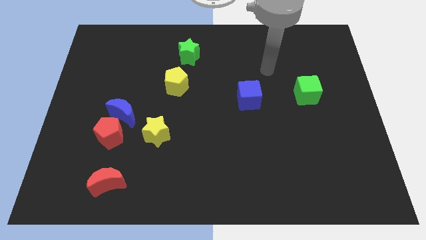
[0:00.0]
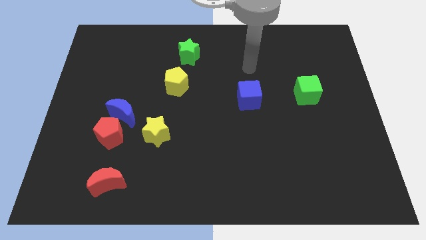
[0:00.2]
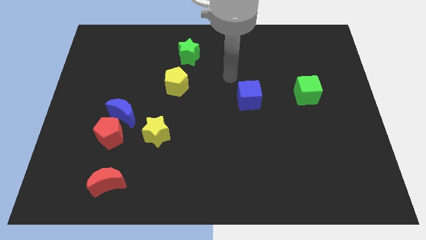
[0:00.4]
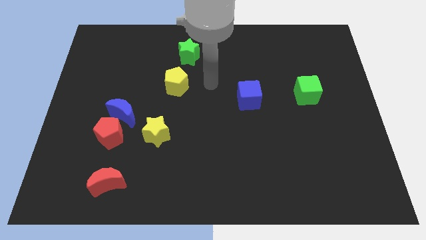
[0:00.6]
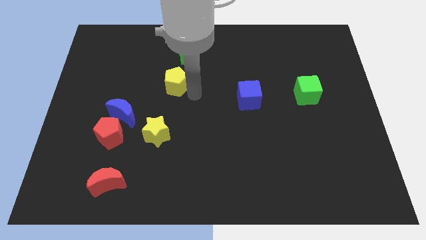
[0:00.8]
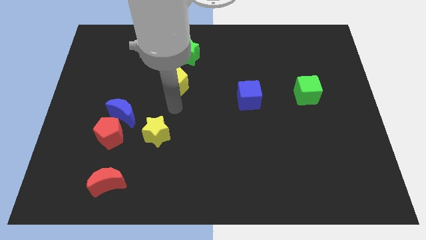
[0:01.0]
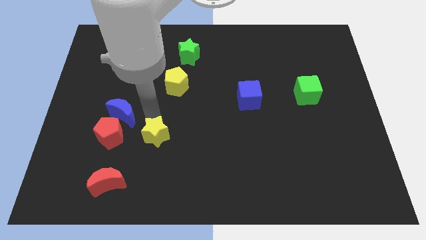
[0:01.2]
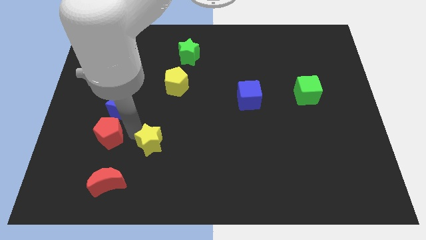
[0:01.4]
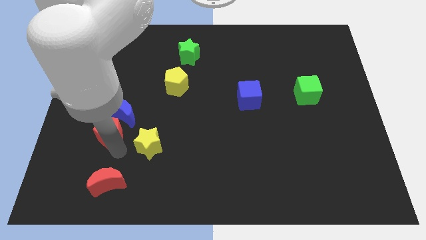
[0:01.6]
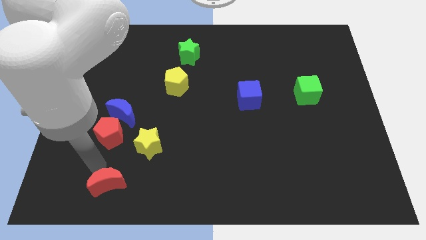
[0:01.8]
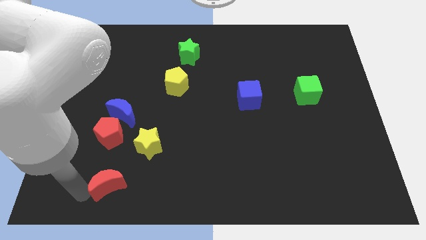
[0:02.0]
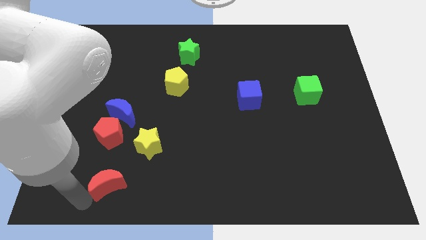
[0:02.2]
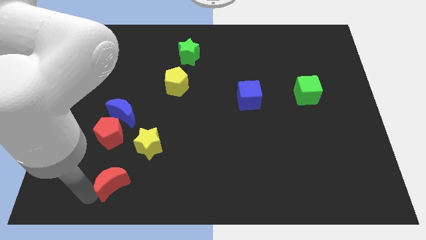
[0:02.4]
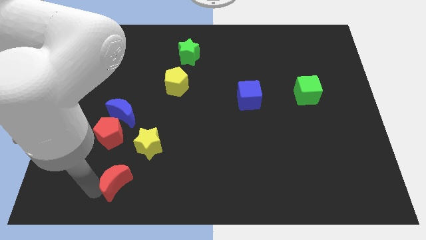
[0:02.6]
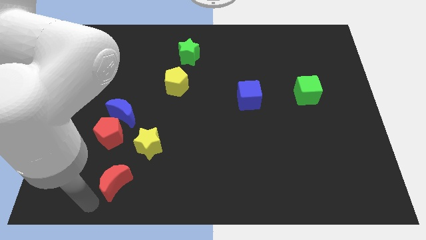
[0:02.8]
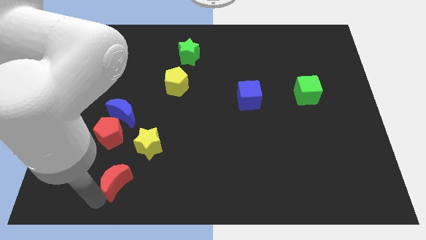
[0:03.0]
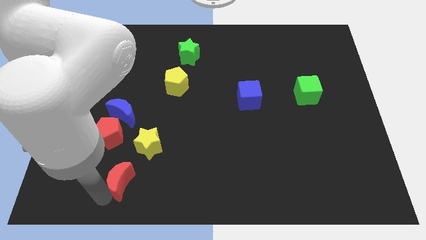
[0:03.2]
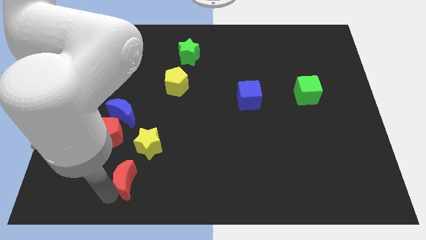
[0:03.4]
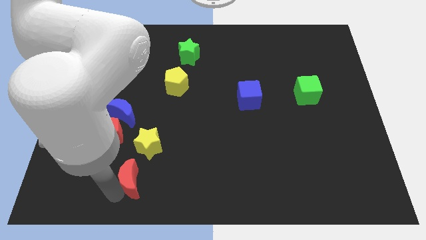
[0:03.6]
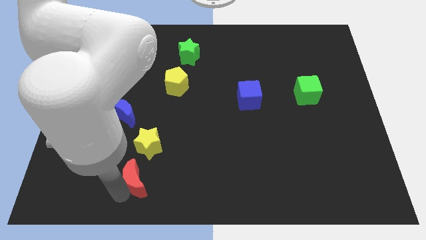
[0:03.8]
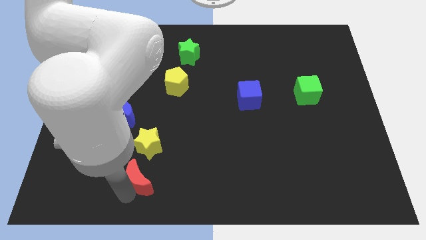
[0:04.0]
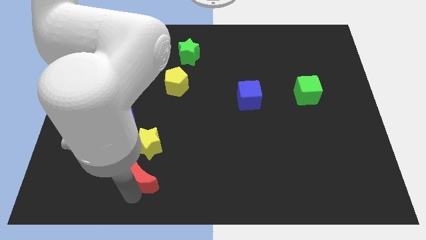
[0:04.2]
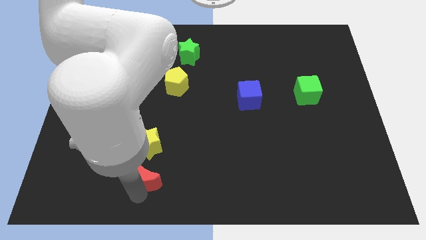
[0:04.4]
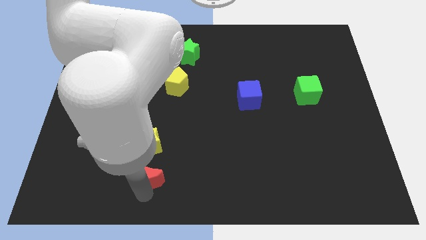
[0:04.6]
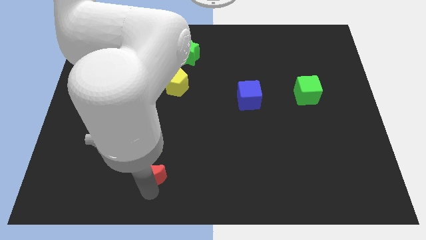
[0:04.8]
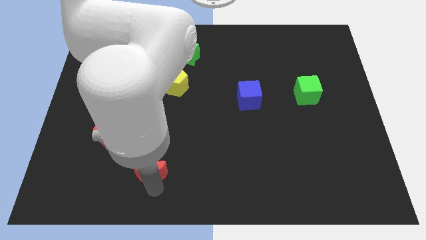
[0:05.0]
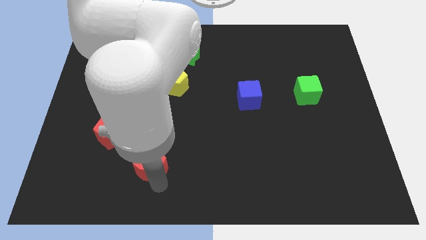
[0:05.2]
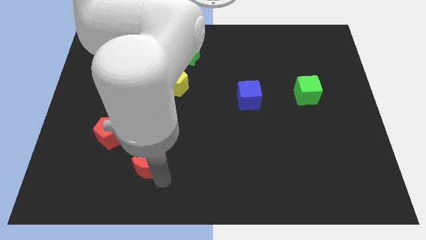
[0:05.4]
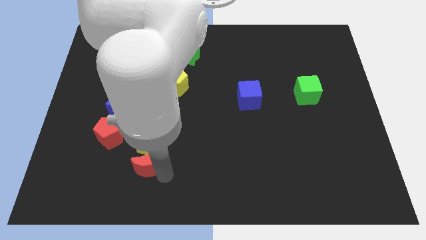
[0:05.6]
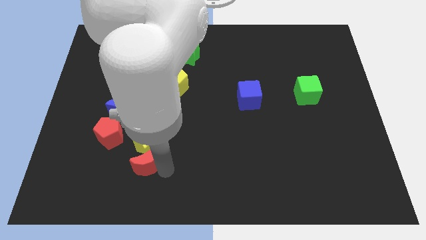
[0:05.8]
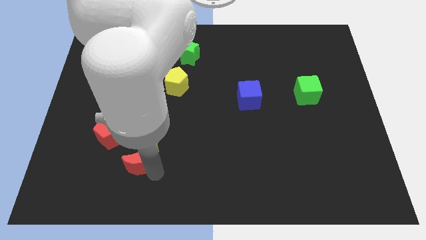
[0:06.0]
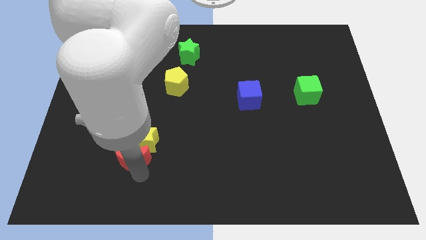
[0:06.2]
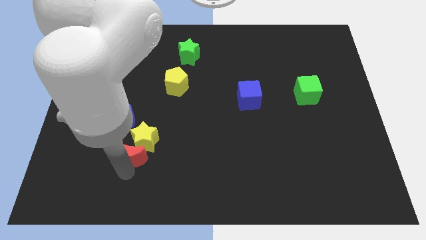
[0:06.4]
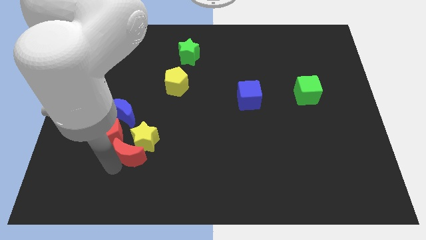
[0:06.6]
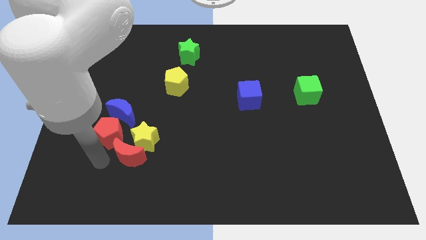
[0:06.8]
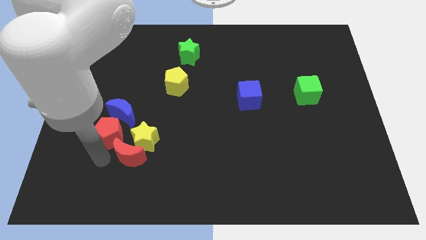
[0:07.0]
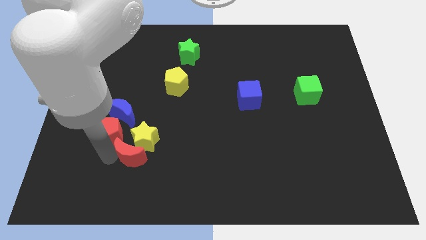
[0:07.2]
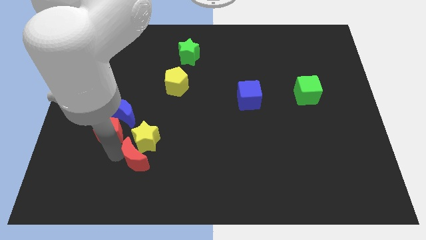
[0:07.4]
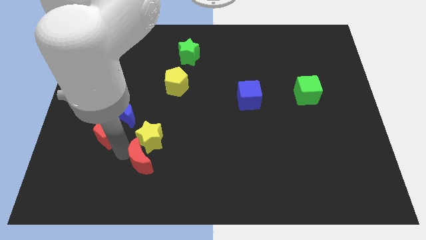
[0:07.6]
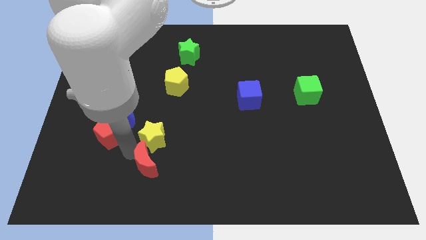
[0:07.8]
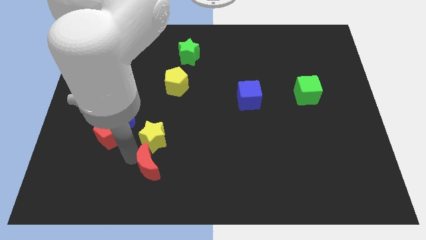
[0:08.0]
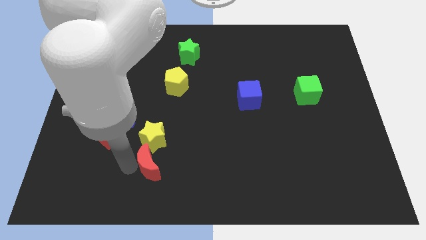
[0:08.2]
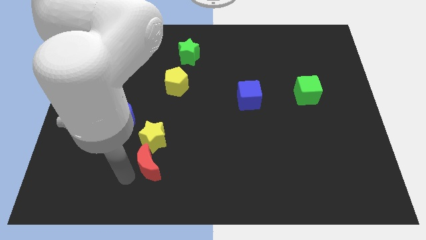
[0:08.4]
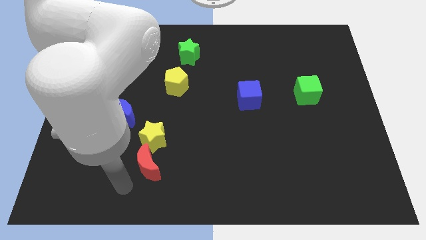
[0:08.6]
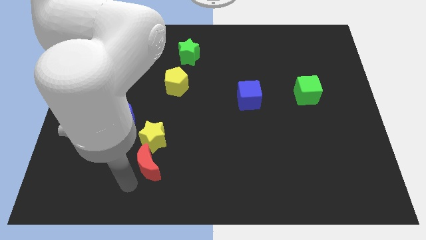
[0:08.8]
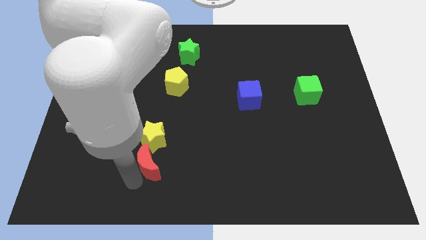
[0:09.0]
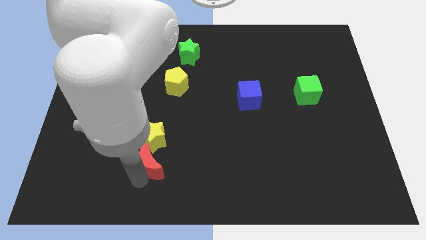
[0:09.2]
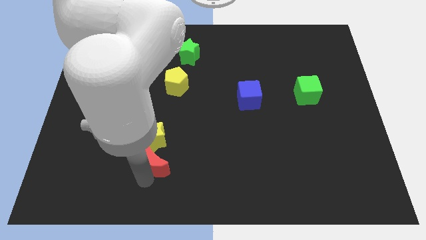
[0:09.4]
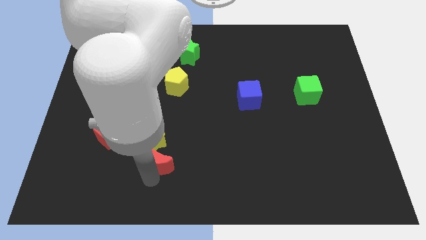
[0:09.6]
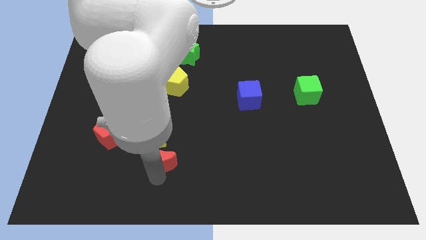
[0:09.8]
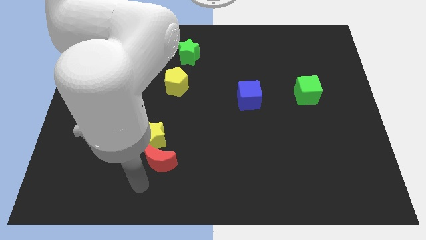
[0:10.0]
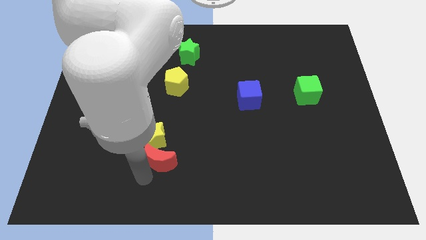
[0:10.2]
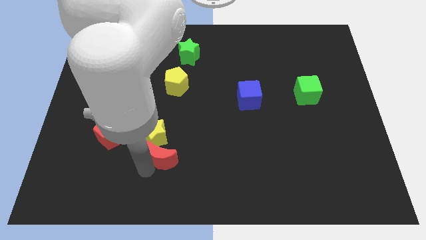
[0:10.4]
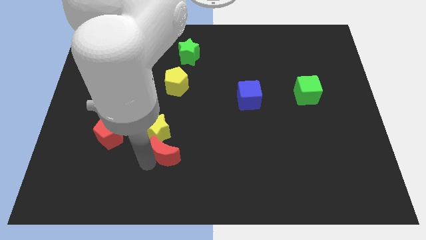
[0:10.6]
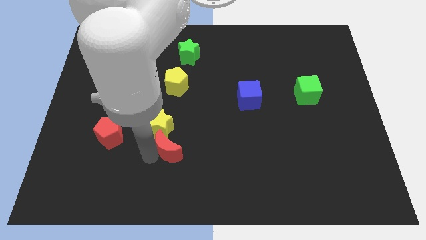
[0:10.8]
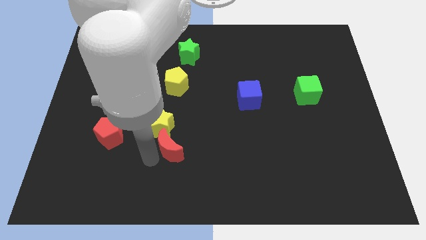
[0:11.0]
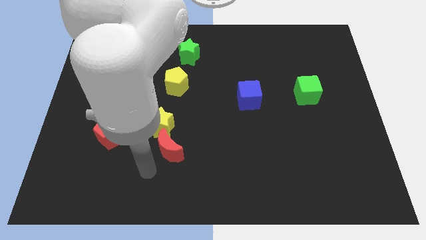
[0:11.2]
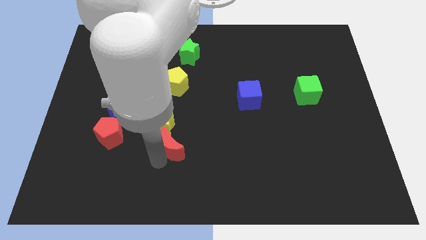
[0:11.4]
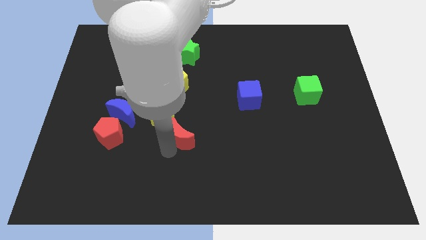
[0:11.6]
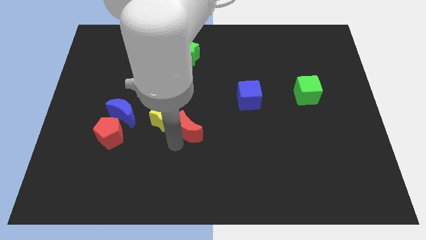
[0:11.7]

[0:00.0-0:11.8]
slide the red moon to the center

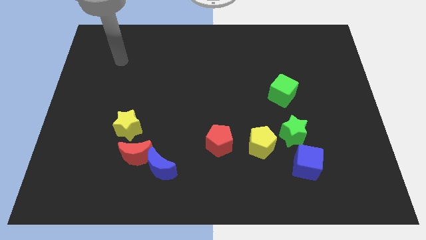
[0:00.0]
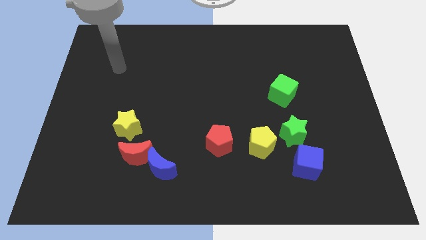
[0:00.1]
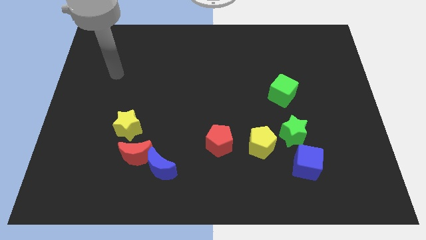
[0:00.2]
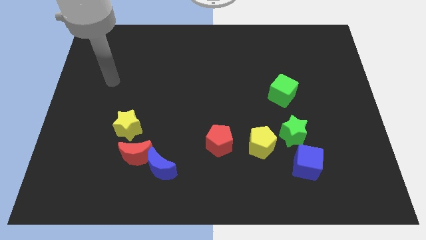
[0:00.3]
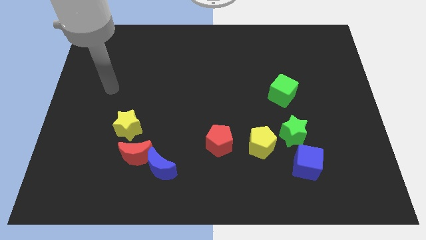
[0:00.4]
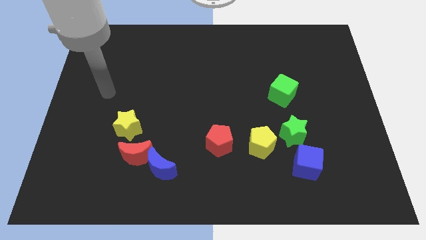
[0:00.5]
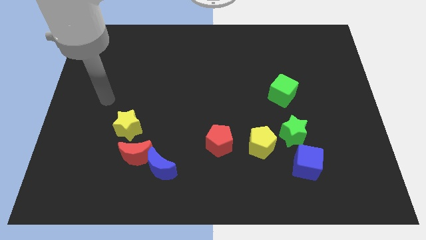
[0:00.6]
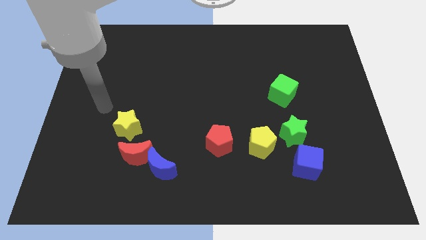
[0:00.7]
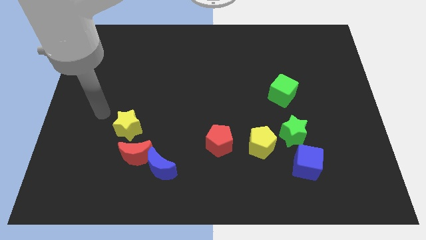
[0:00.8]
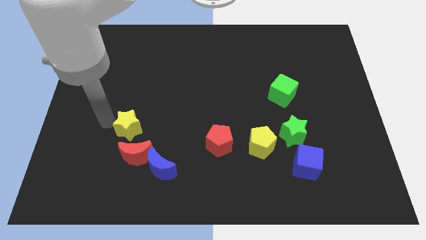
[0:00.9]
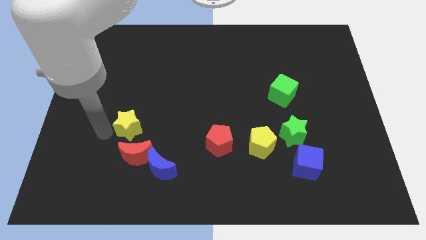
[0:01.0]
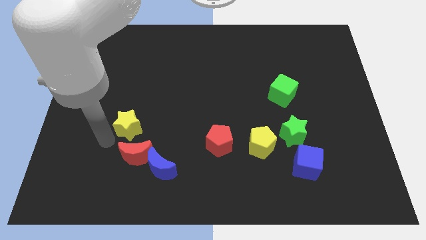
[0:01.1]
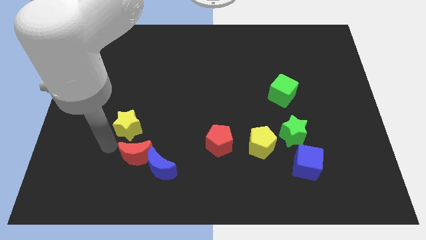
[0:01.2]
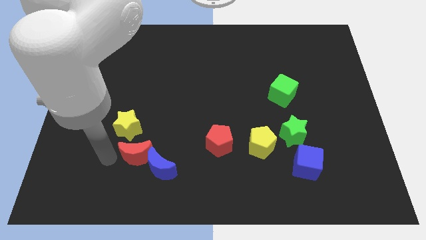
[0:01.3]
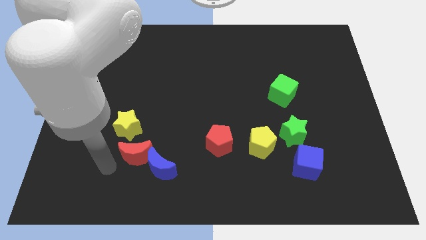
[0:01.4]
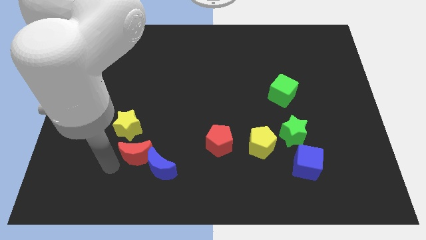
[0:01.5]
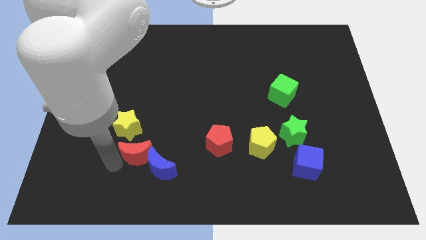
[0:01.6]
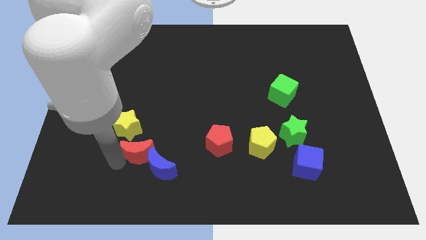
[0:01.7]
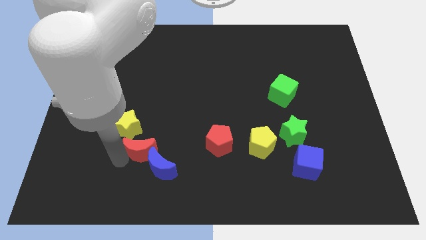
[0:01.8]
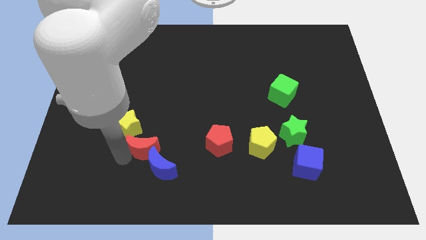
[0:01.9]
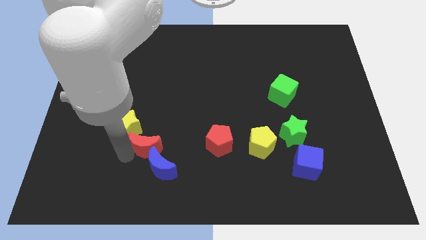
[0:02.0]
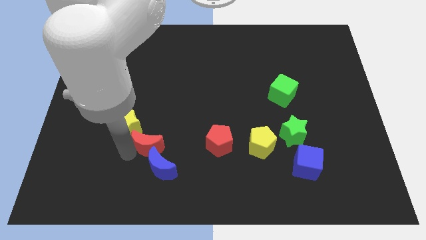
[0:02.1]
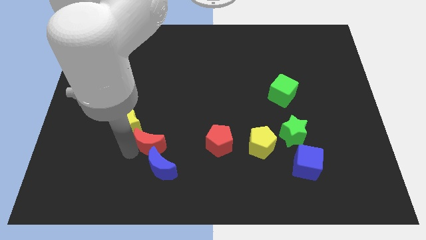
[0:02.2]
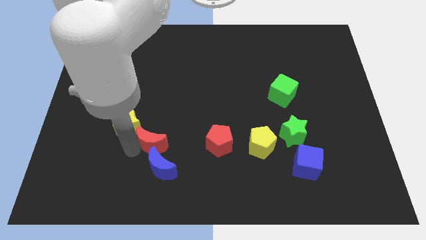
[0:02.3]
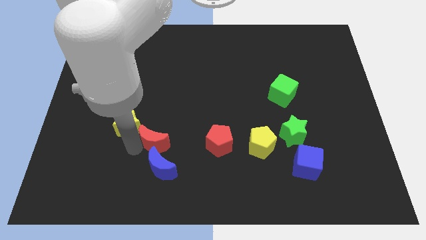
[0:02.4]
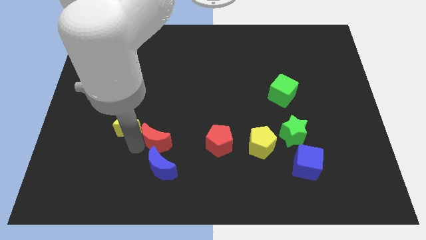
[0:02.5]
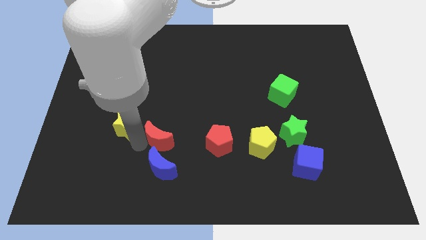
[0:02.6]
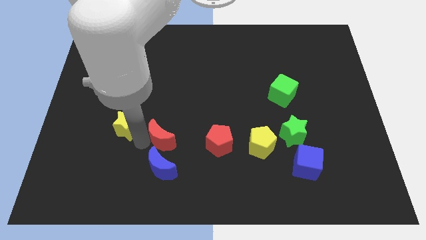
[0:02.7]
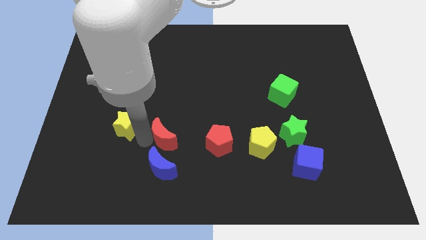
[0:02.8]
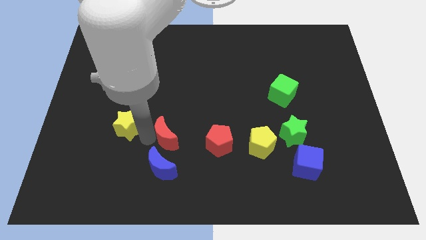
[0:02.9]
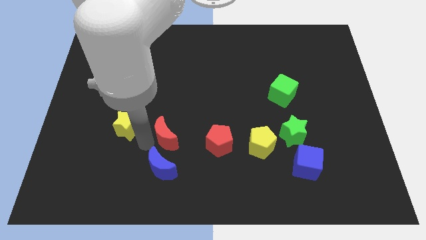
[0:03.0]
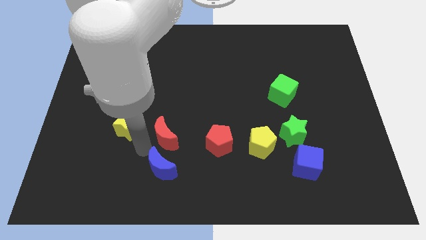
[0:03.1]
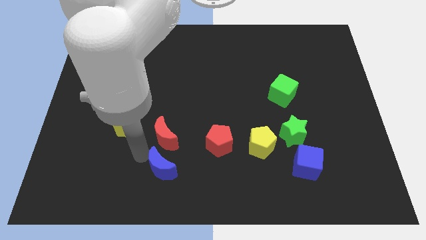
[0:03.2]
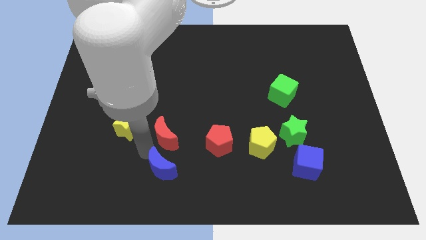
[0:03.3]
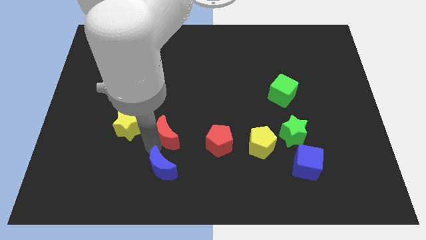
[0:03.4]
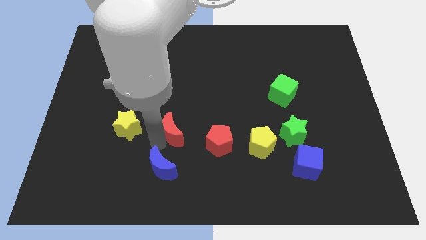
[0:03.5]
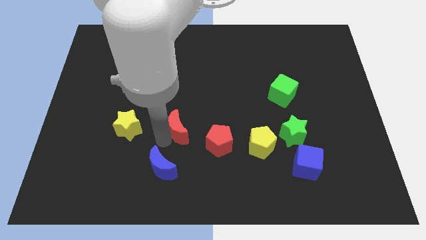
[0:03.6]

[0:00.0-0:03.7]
put the red moon to the center of the board
